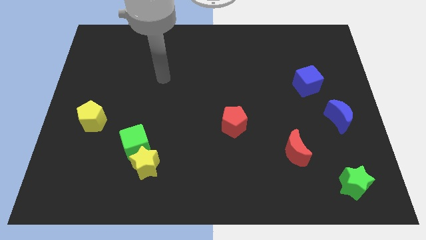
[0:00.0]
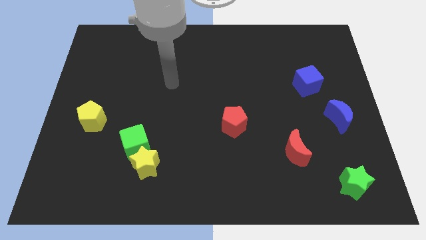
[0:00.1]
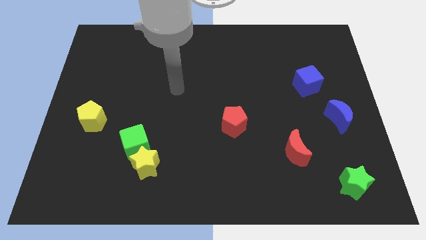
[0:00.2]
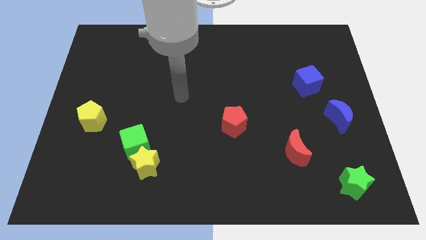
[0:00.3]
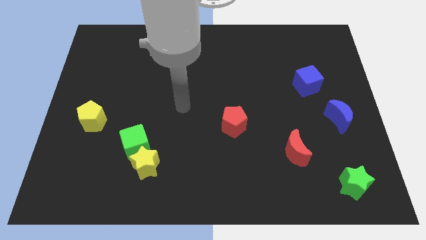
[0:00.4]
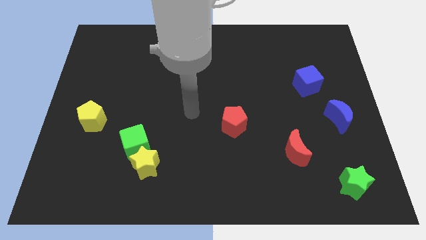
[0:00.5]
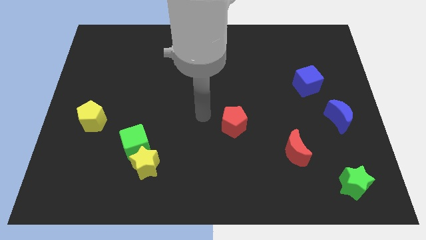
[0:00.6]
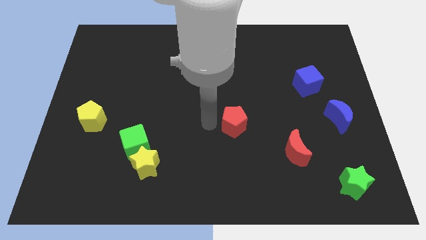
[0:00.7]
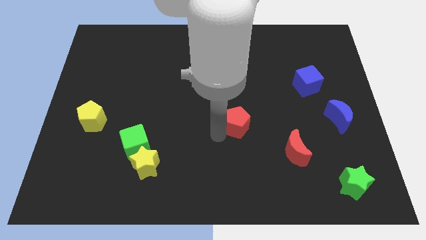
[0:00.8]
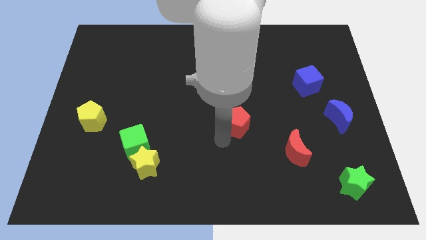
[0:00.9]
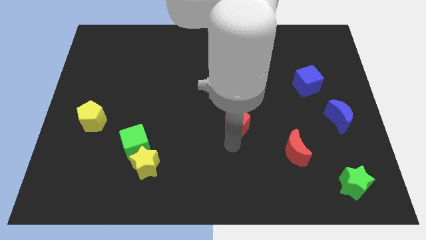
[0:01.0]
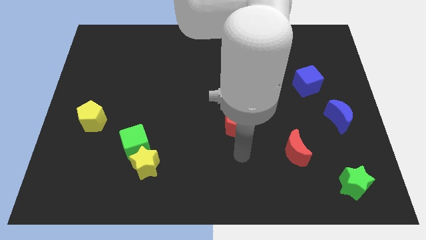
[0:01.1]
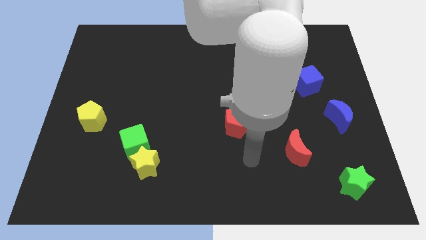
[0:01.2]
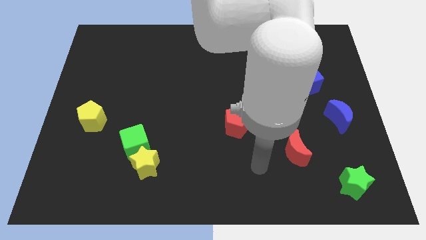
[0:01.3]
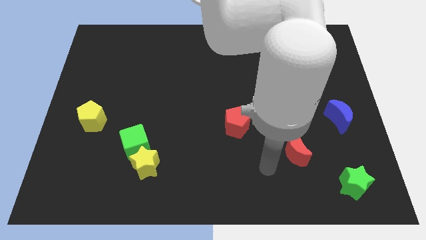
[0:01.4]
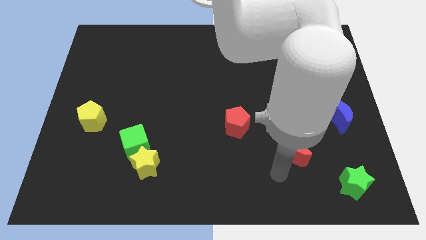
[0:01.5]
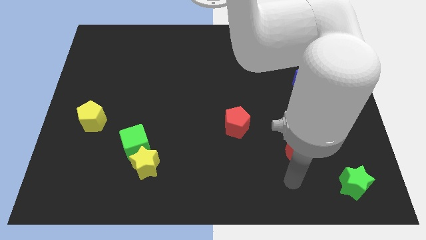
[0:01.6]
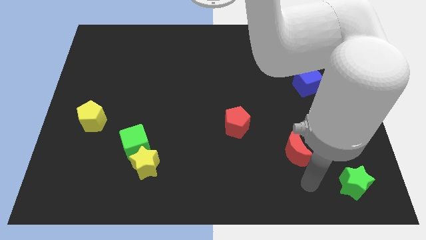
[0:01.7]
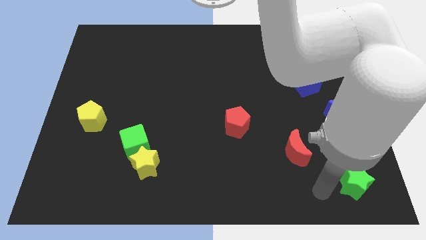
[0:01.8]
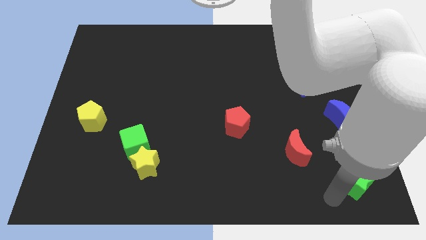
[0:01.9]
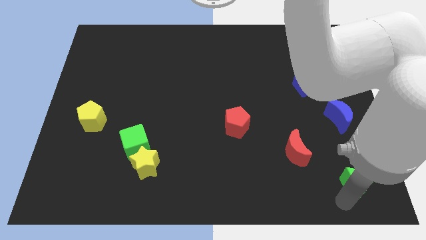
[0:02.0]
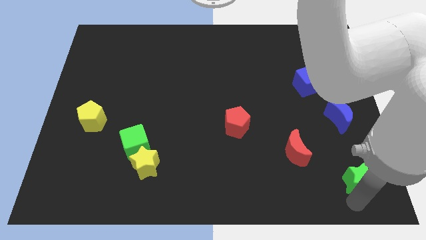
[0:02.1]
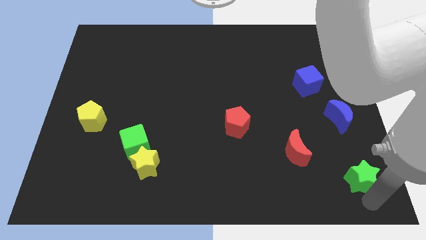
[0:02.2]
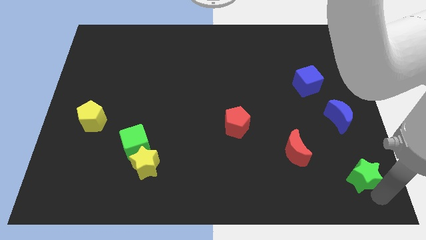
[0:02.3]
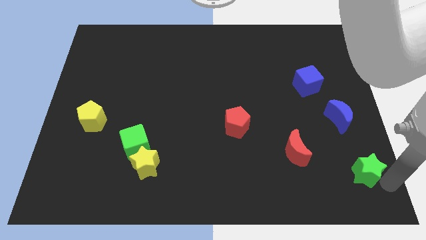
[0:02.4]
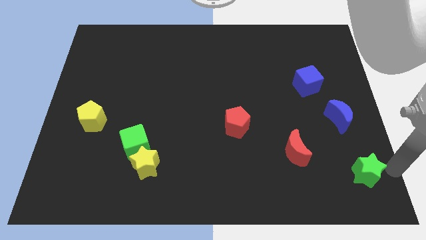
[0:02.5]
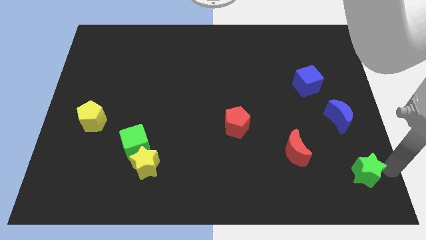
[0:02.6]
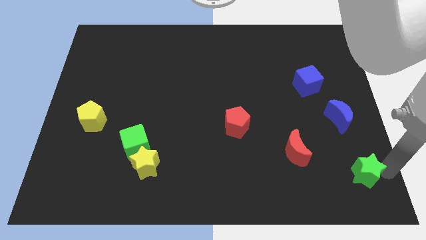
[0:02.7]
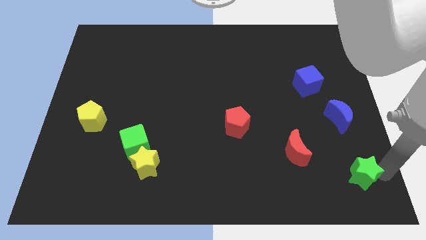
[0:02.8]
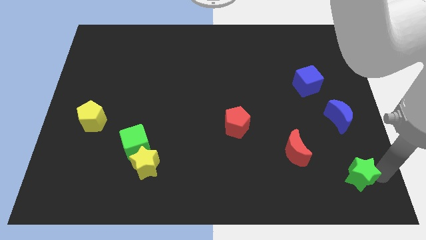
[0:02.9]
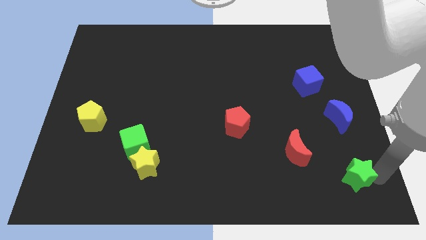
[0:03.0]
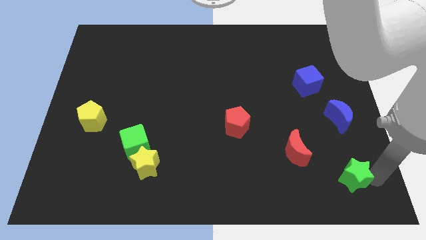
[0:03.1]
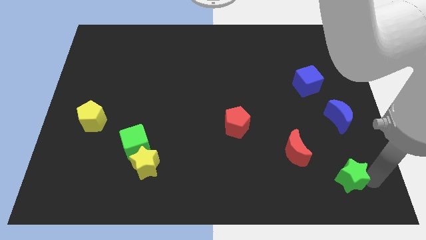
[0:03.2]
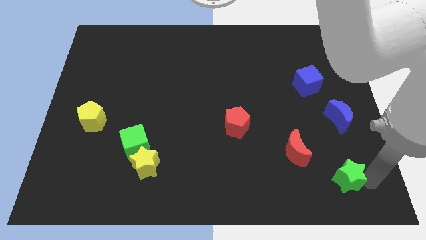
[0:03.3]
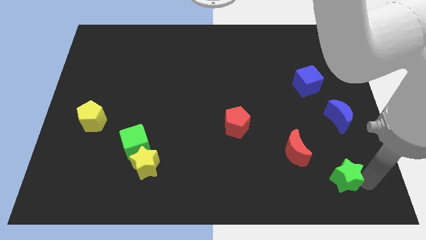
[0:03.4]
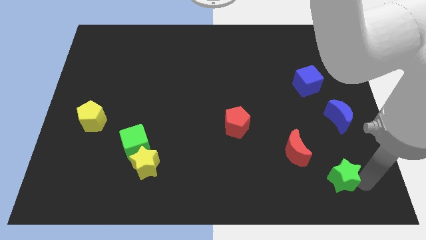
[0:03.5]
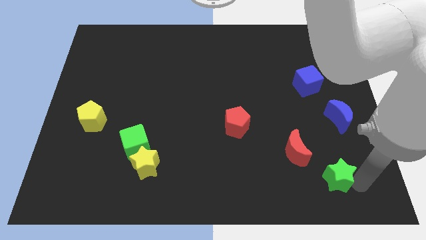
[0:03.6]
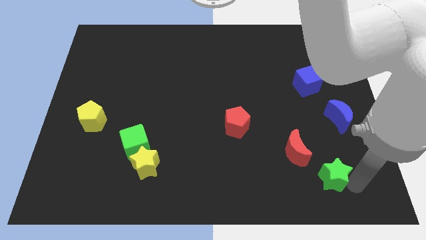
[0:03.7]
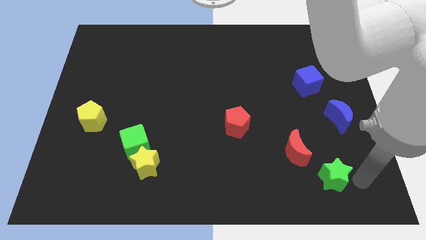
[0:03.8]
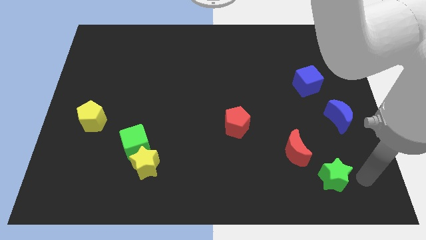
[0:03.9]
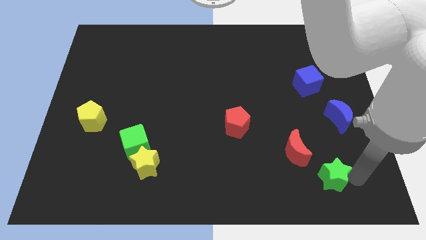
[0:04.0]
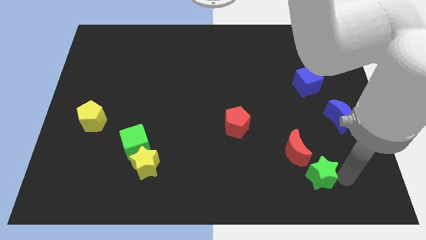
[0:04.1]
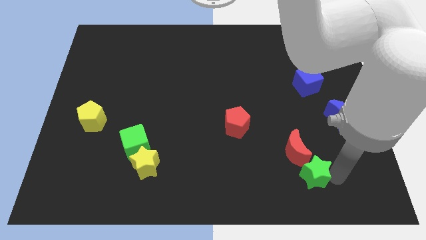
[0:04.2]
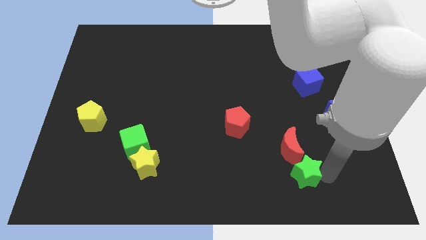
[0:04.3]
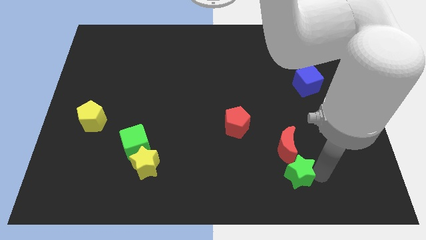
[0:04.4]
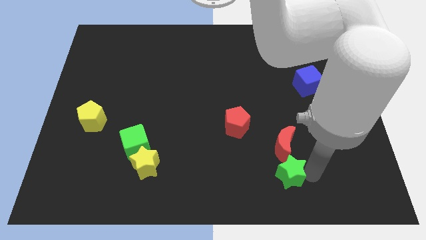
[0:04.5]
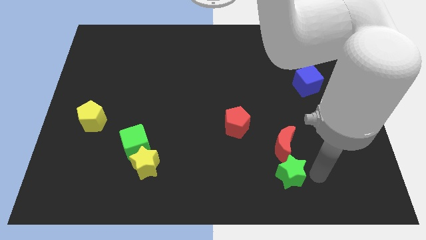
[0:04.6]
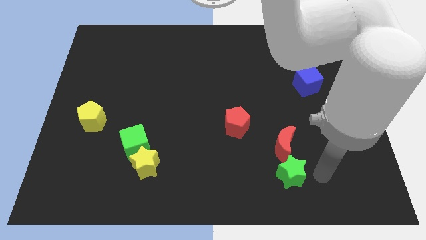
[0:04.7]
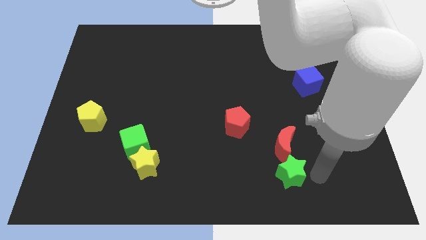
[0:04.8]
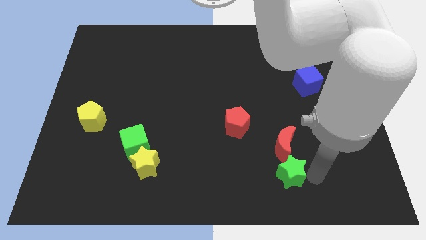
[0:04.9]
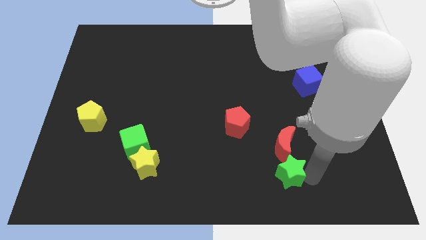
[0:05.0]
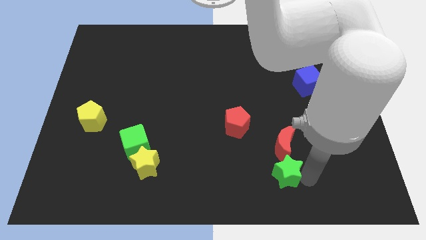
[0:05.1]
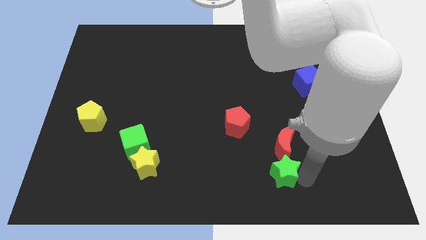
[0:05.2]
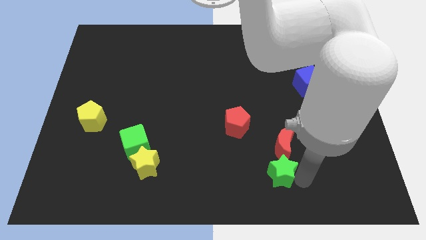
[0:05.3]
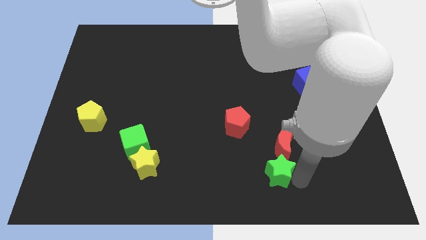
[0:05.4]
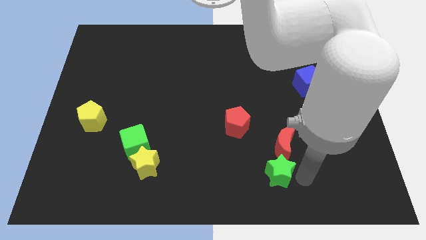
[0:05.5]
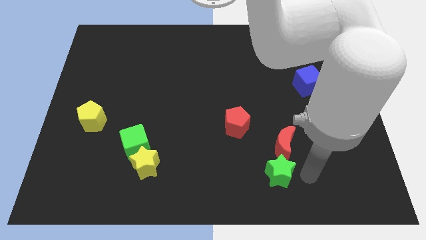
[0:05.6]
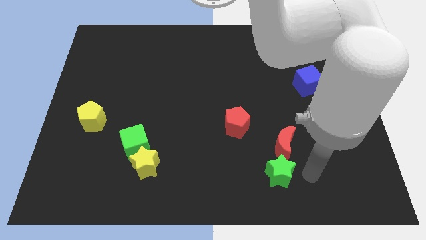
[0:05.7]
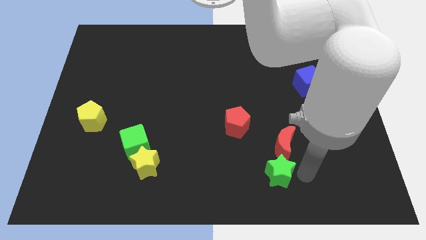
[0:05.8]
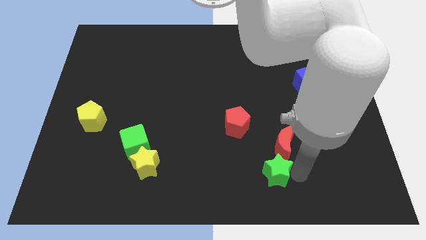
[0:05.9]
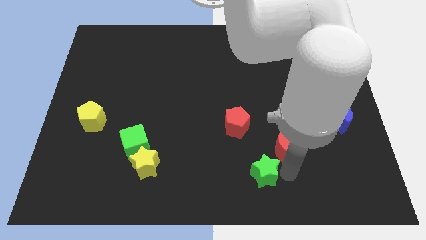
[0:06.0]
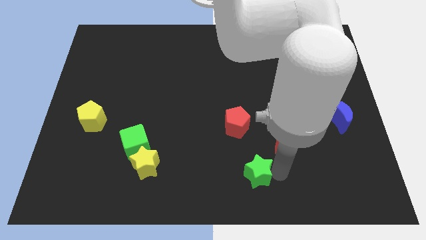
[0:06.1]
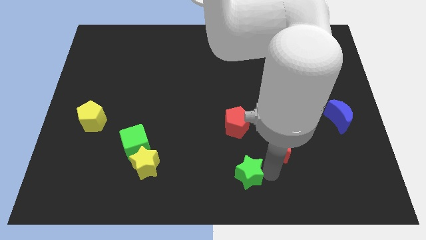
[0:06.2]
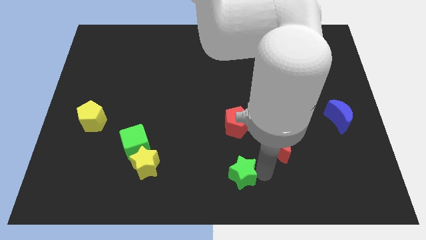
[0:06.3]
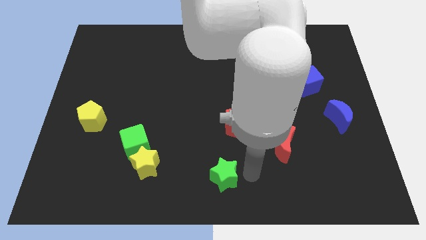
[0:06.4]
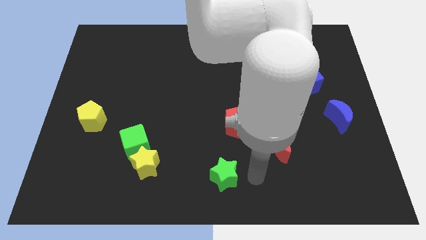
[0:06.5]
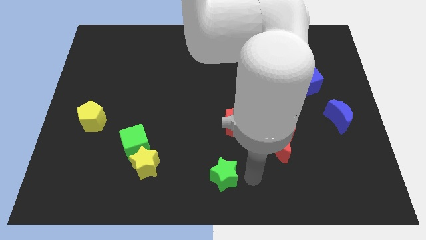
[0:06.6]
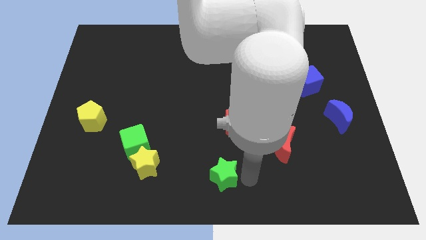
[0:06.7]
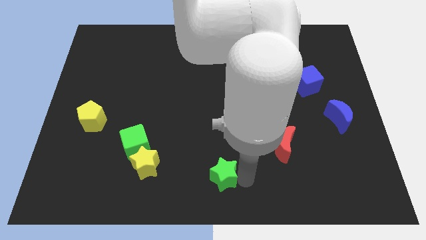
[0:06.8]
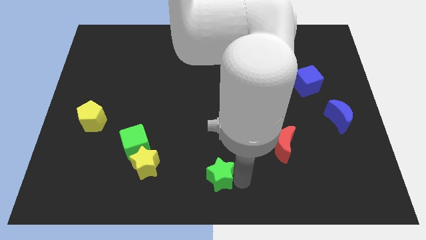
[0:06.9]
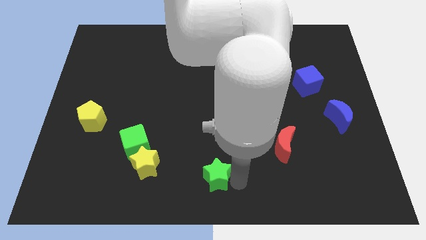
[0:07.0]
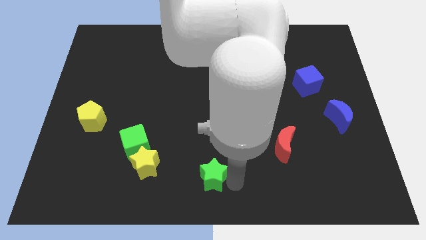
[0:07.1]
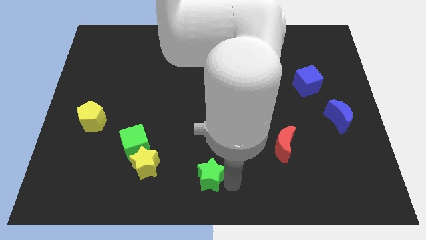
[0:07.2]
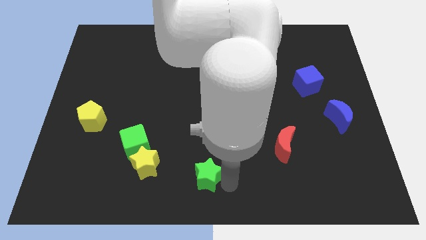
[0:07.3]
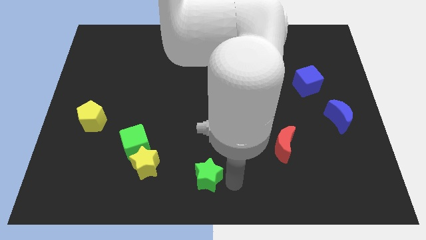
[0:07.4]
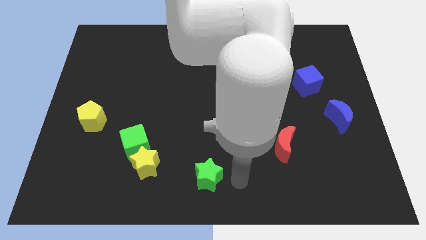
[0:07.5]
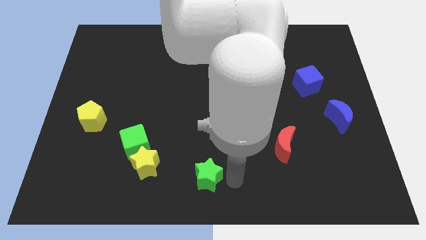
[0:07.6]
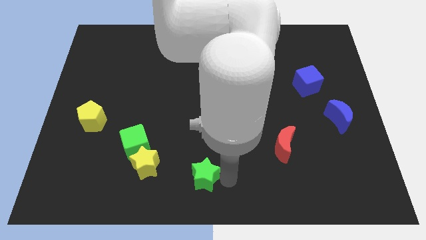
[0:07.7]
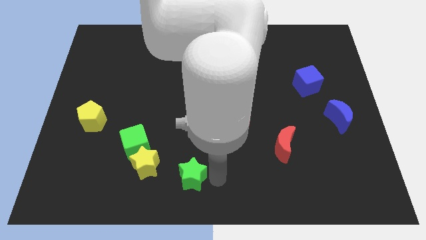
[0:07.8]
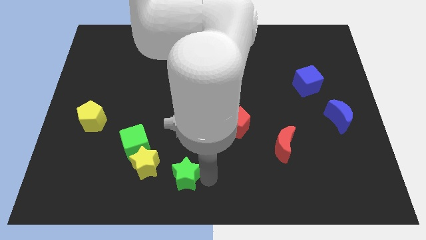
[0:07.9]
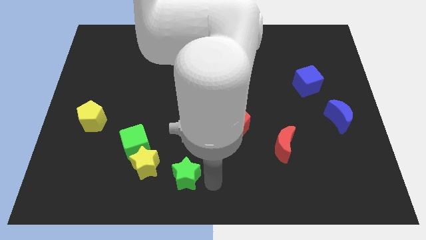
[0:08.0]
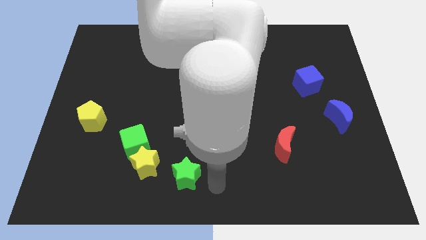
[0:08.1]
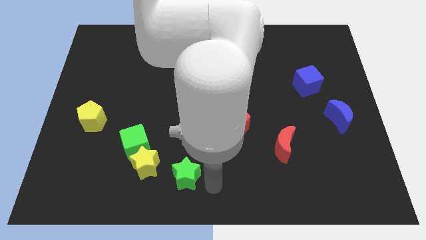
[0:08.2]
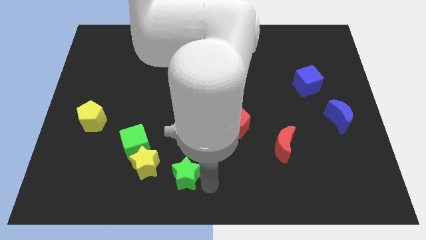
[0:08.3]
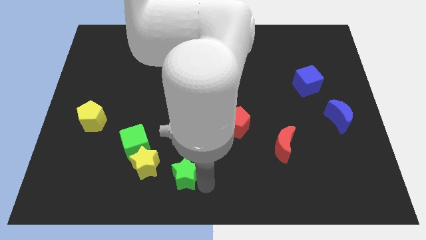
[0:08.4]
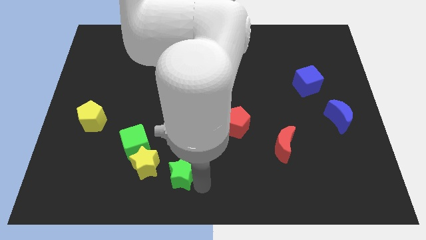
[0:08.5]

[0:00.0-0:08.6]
slide the green star to the bottom right of the green cube
